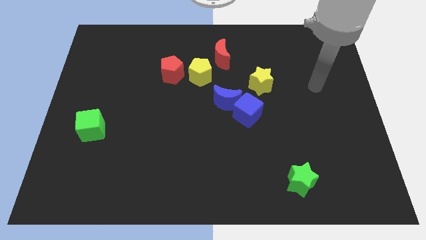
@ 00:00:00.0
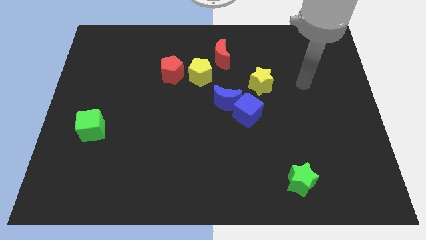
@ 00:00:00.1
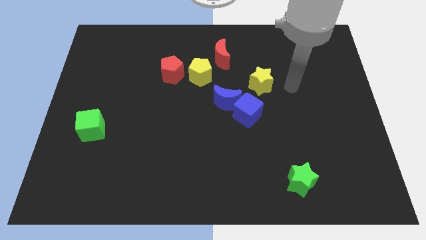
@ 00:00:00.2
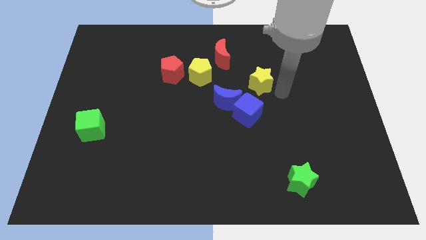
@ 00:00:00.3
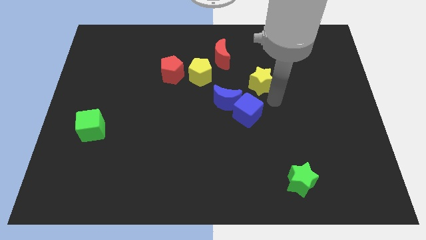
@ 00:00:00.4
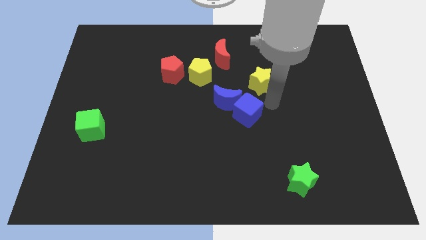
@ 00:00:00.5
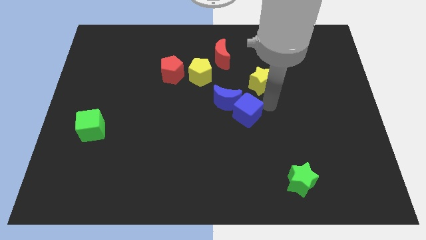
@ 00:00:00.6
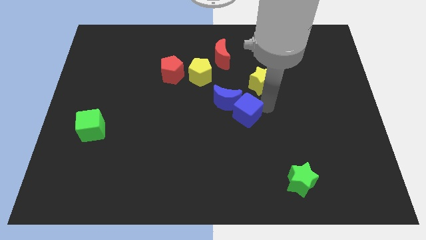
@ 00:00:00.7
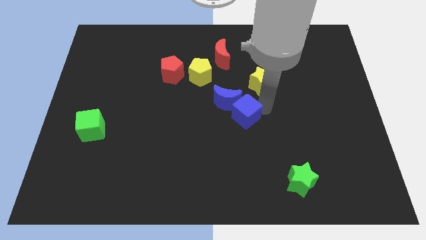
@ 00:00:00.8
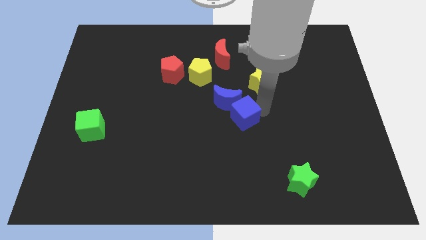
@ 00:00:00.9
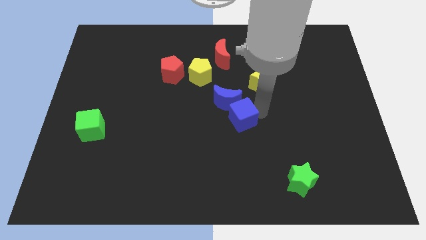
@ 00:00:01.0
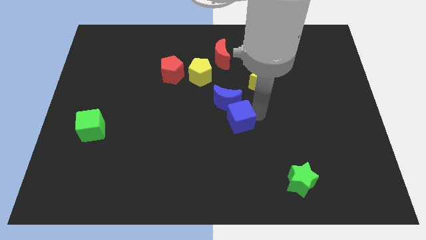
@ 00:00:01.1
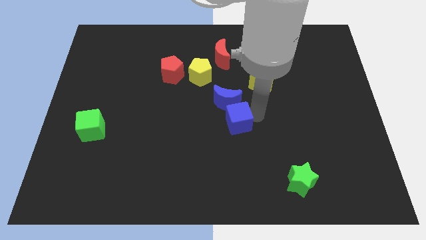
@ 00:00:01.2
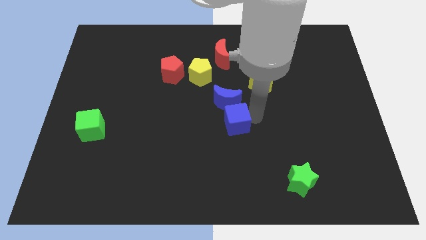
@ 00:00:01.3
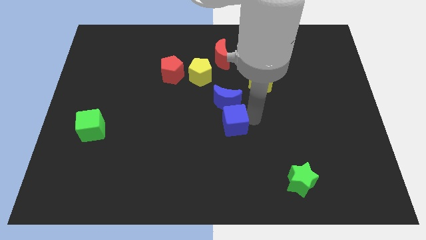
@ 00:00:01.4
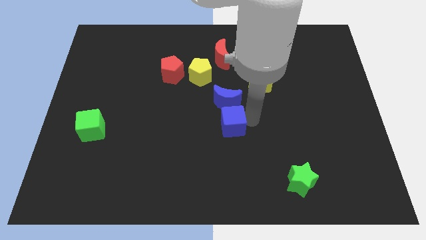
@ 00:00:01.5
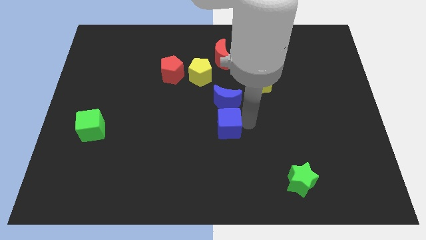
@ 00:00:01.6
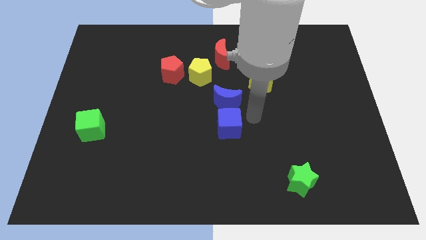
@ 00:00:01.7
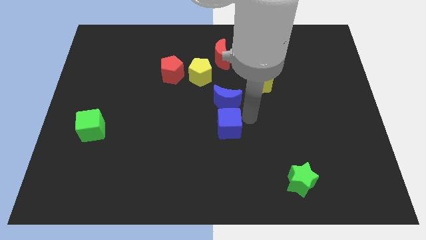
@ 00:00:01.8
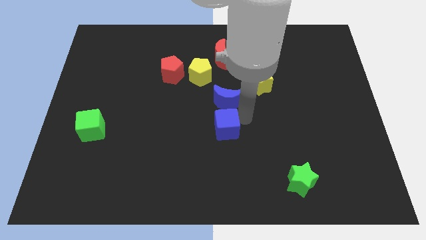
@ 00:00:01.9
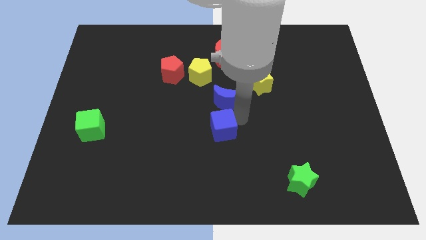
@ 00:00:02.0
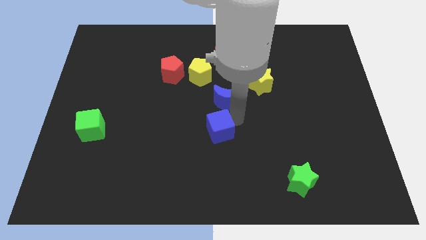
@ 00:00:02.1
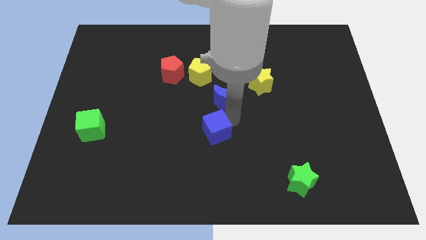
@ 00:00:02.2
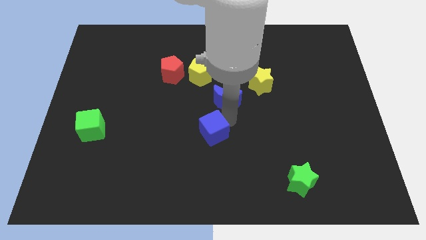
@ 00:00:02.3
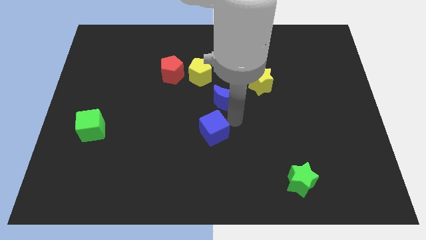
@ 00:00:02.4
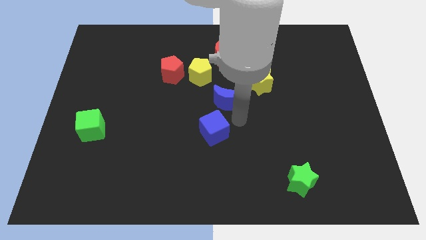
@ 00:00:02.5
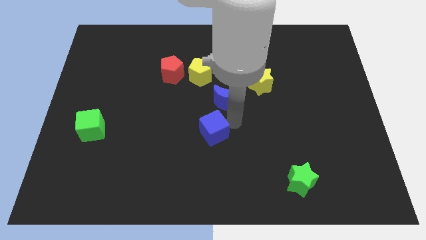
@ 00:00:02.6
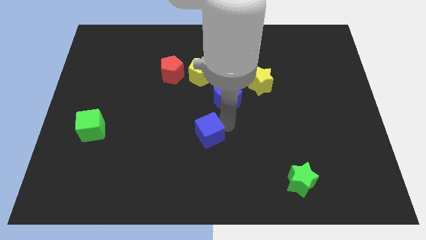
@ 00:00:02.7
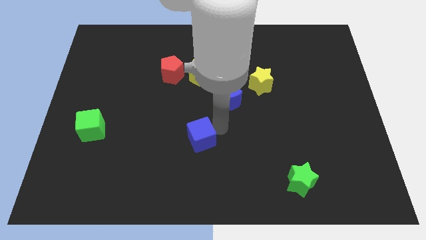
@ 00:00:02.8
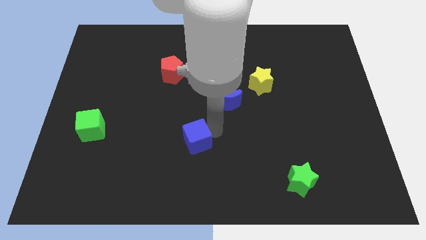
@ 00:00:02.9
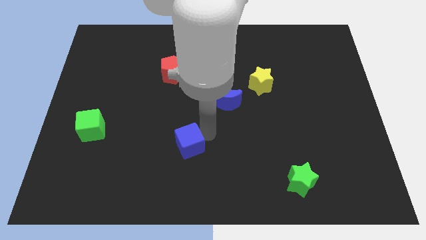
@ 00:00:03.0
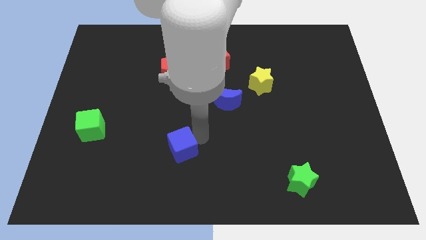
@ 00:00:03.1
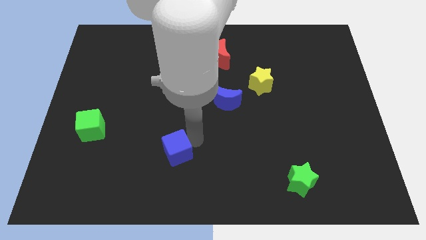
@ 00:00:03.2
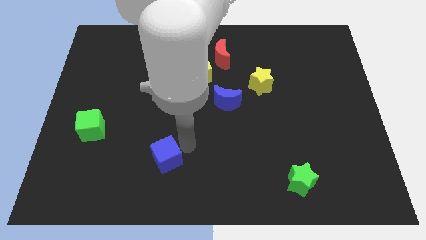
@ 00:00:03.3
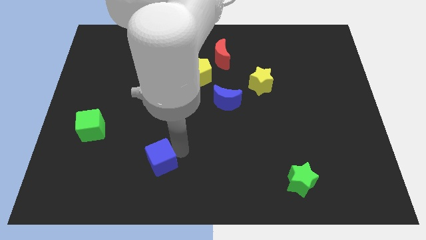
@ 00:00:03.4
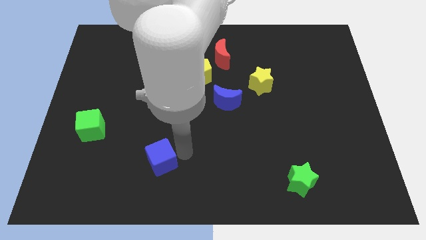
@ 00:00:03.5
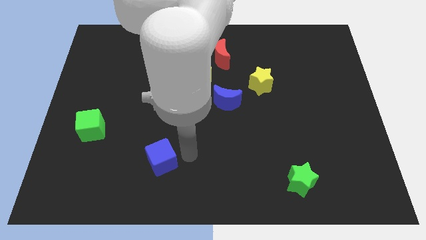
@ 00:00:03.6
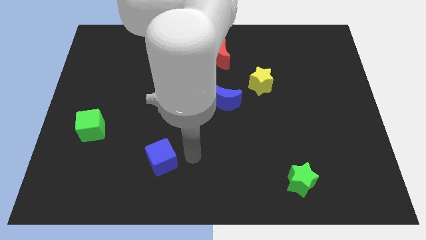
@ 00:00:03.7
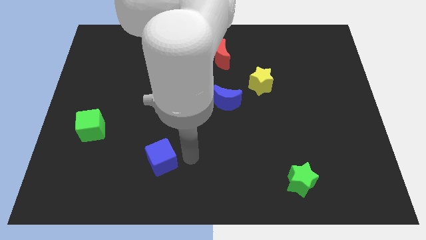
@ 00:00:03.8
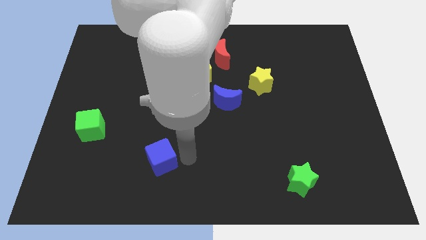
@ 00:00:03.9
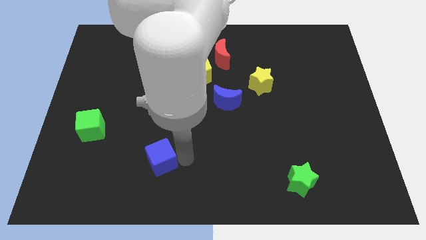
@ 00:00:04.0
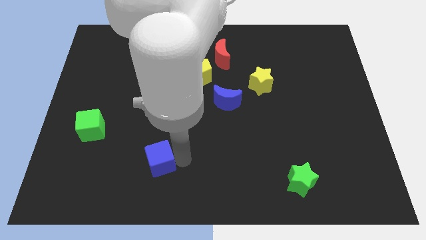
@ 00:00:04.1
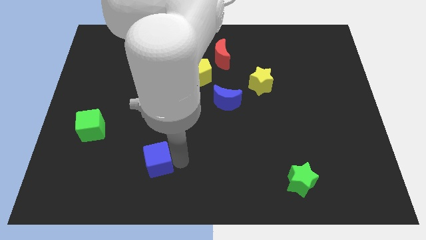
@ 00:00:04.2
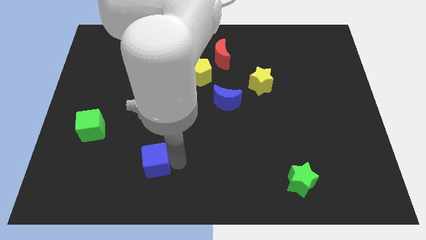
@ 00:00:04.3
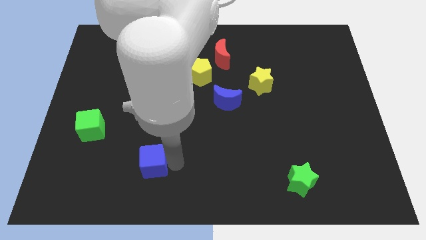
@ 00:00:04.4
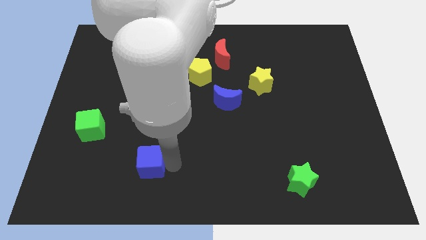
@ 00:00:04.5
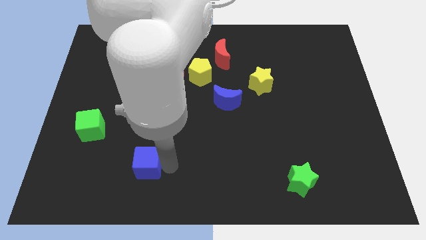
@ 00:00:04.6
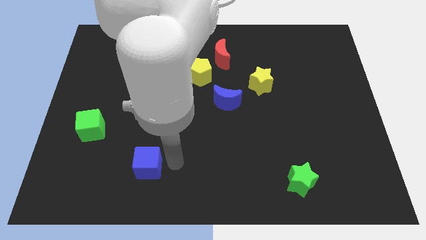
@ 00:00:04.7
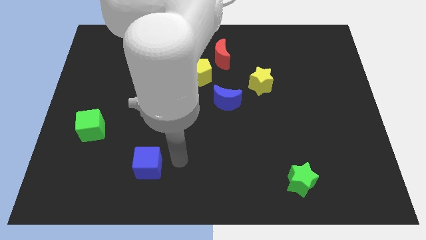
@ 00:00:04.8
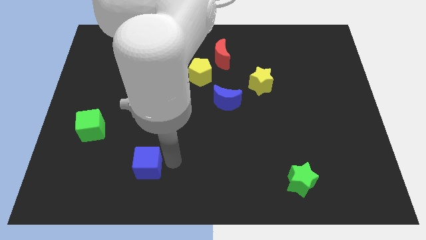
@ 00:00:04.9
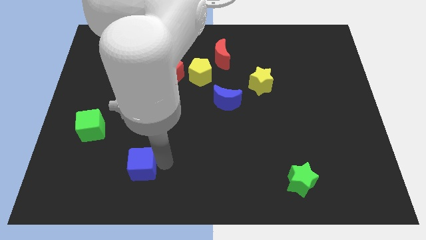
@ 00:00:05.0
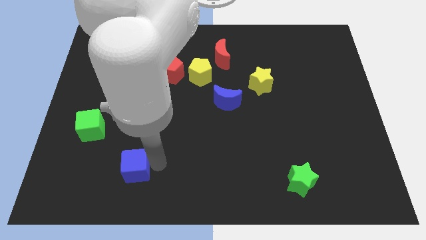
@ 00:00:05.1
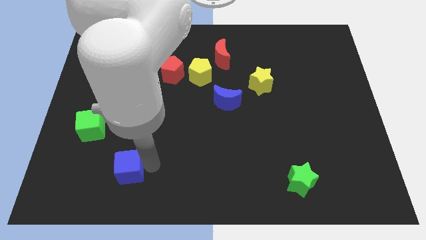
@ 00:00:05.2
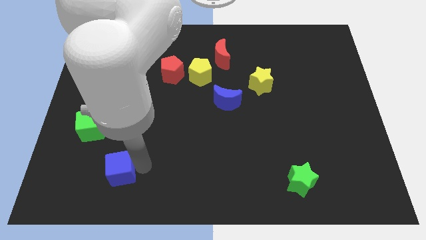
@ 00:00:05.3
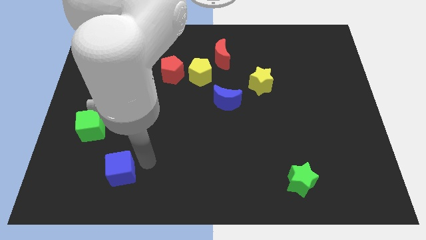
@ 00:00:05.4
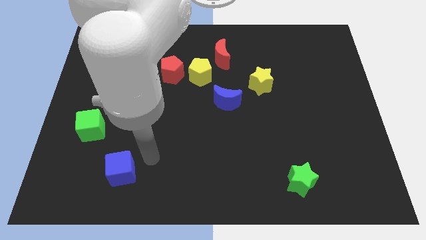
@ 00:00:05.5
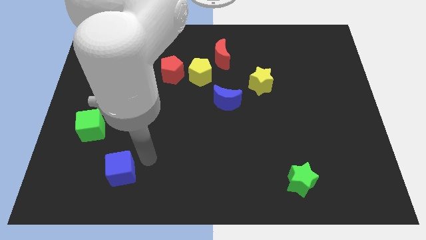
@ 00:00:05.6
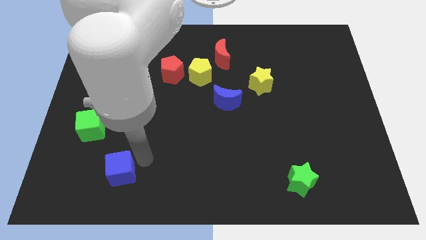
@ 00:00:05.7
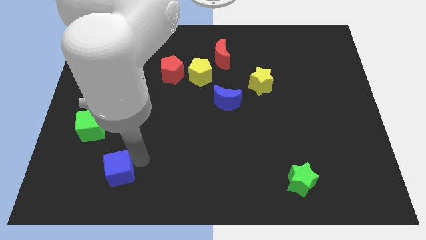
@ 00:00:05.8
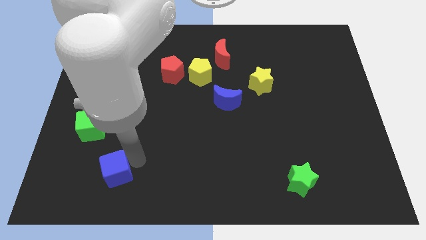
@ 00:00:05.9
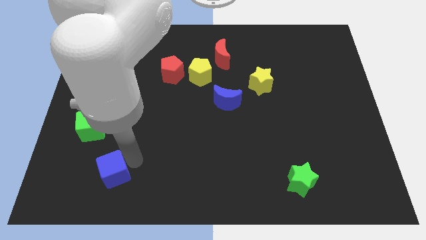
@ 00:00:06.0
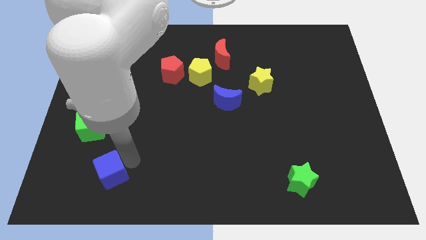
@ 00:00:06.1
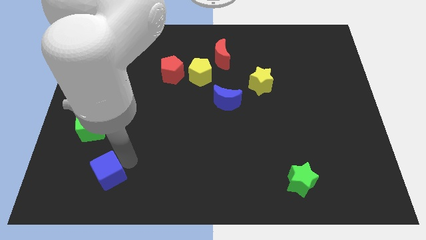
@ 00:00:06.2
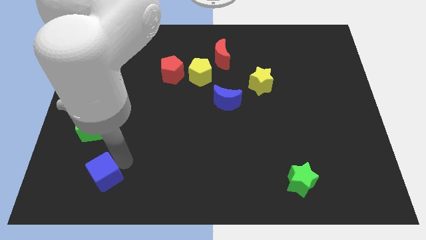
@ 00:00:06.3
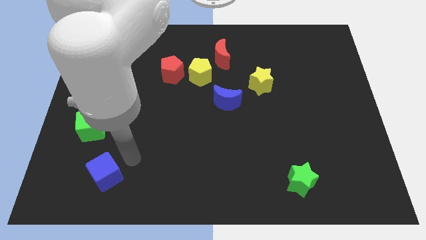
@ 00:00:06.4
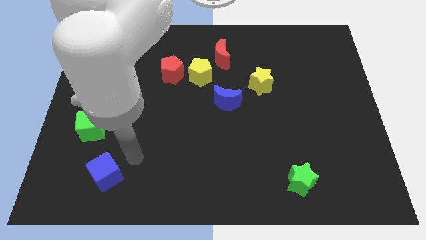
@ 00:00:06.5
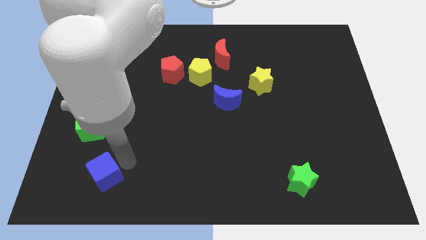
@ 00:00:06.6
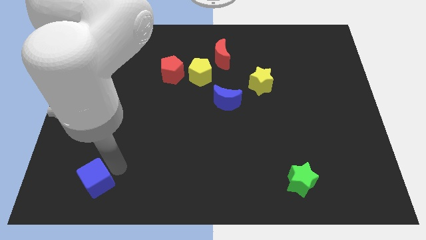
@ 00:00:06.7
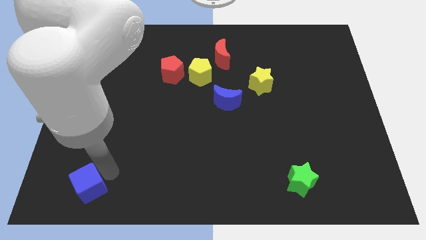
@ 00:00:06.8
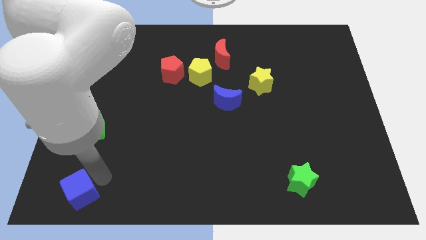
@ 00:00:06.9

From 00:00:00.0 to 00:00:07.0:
put the blue cube to the lower left corner
